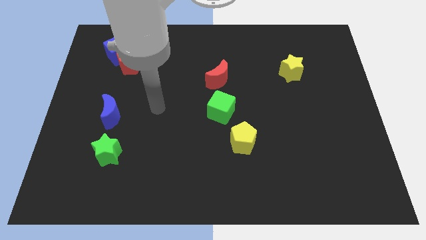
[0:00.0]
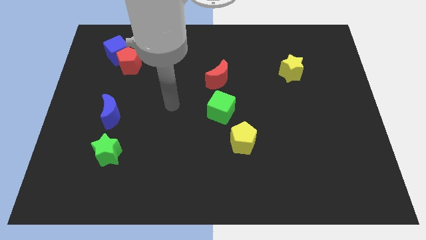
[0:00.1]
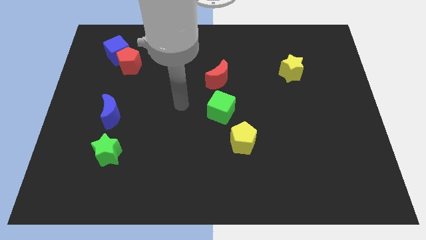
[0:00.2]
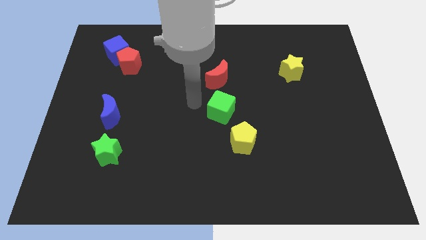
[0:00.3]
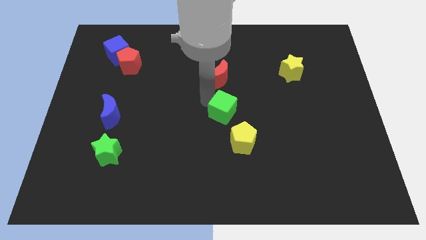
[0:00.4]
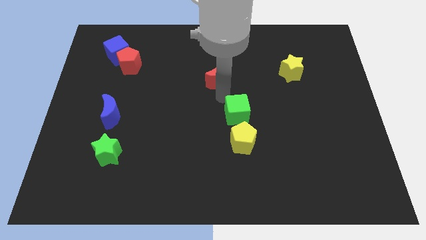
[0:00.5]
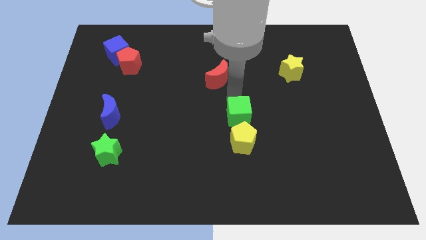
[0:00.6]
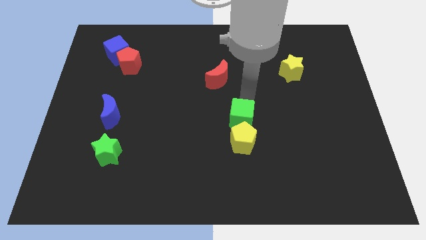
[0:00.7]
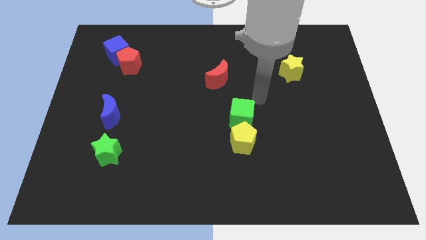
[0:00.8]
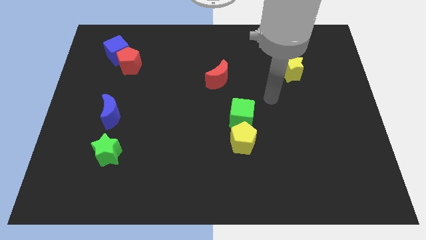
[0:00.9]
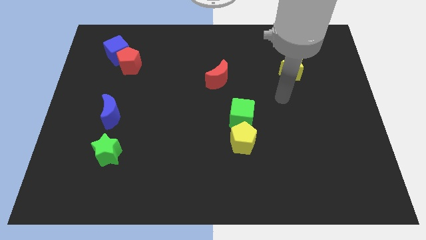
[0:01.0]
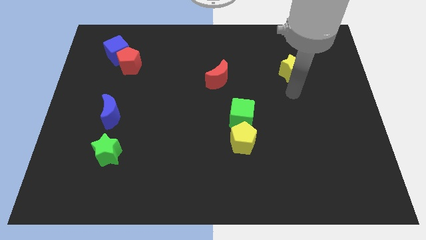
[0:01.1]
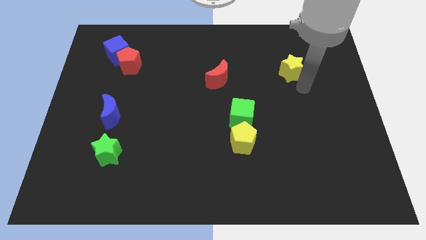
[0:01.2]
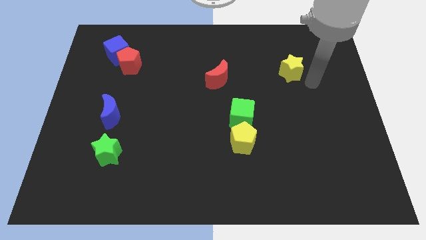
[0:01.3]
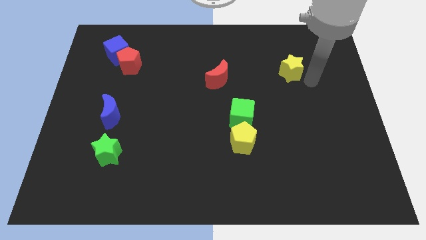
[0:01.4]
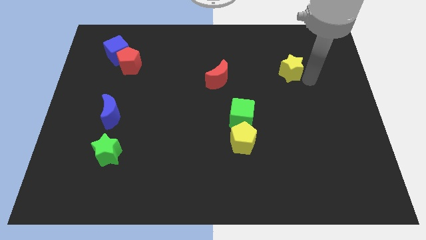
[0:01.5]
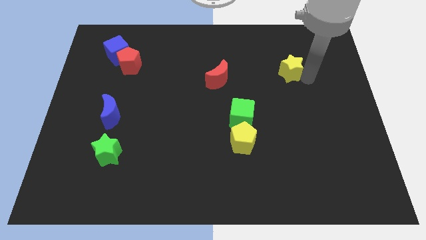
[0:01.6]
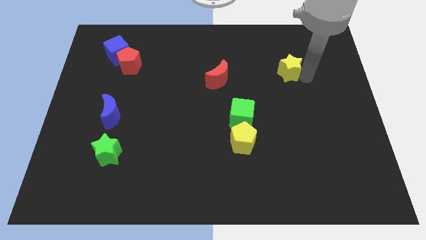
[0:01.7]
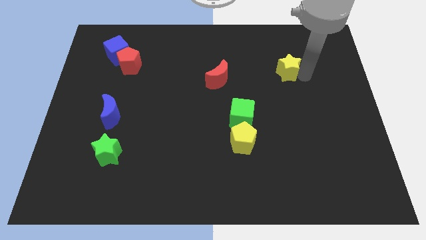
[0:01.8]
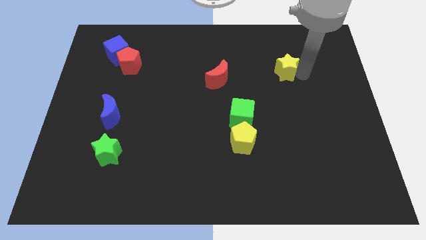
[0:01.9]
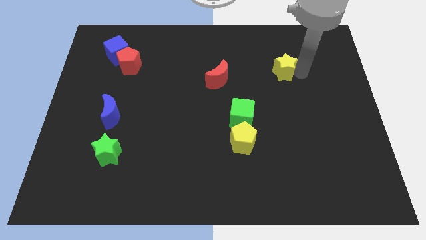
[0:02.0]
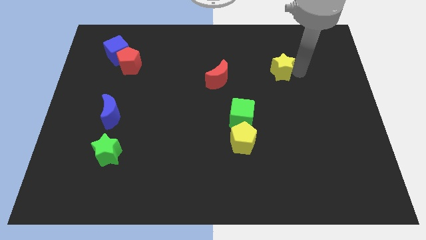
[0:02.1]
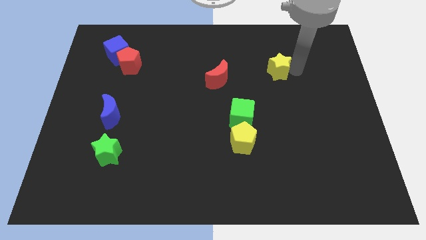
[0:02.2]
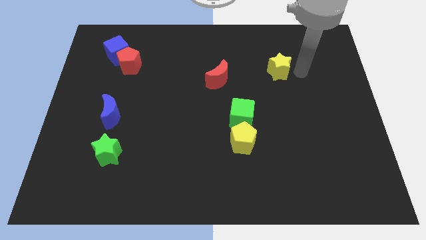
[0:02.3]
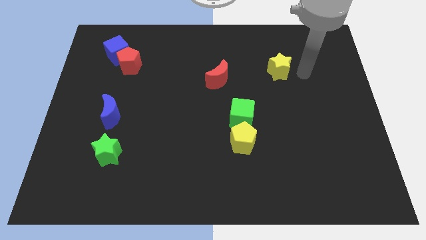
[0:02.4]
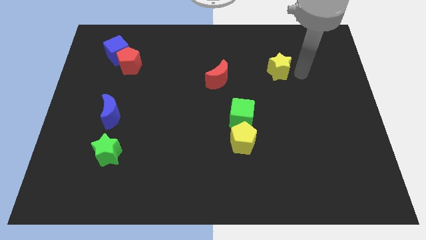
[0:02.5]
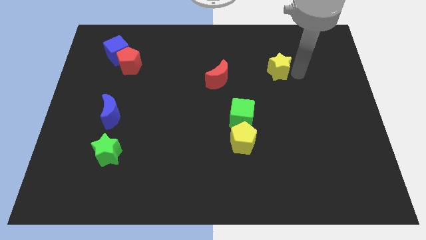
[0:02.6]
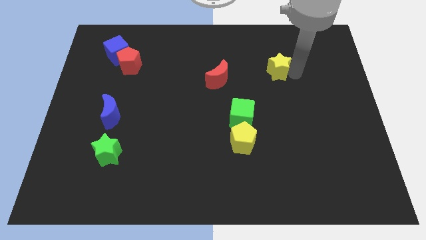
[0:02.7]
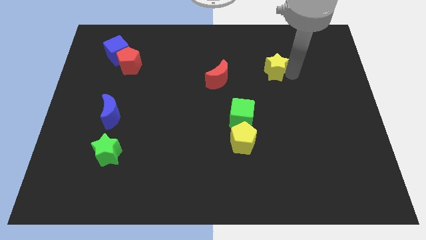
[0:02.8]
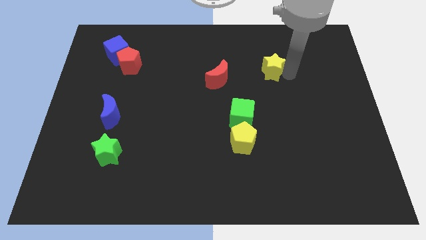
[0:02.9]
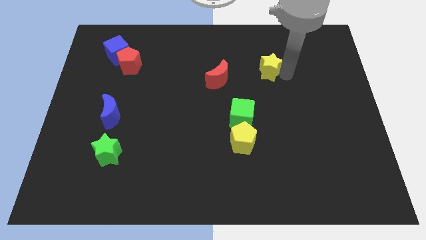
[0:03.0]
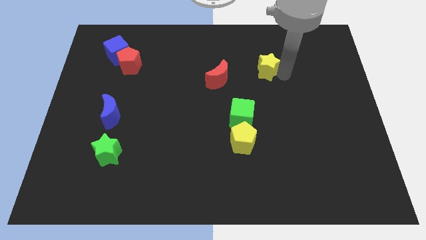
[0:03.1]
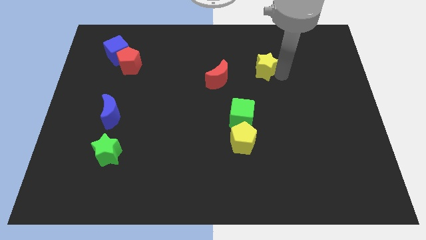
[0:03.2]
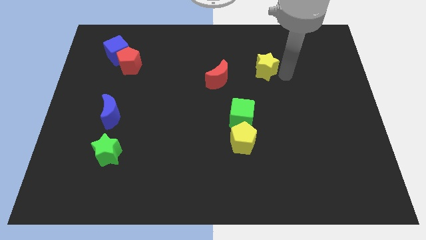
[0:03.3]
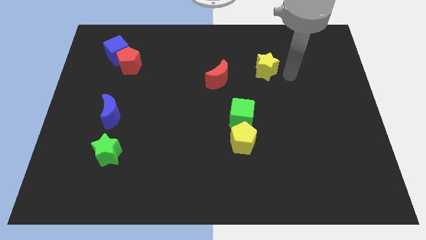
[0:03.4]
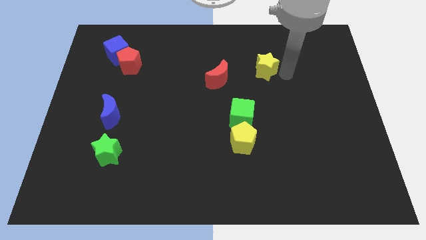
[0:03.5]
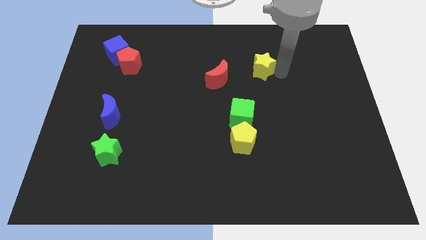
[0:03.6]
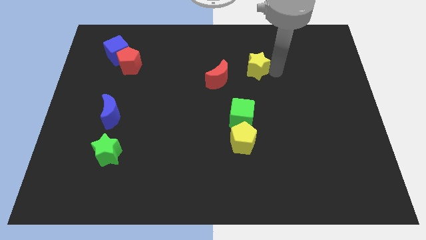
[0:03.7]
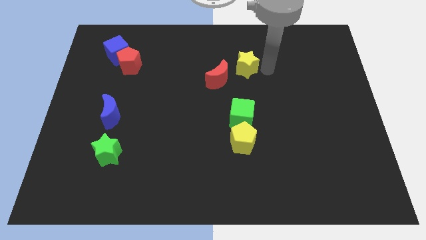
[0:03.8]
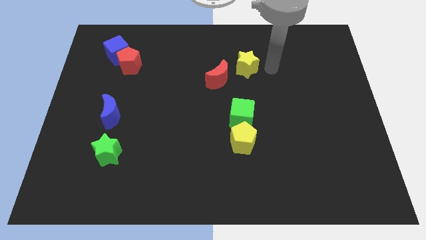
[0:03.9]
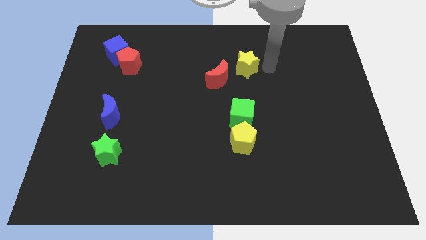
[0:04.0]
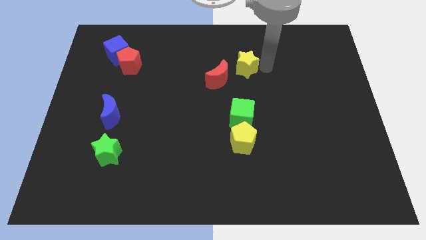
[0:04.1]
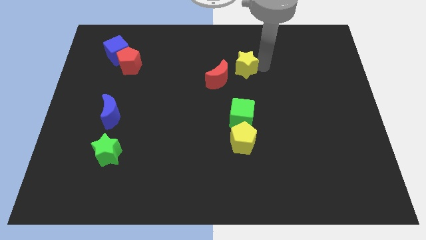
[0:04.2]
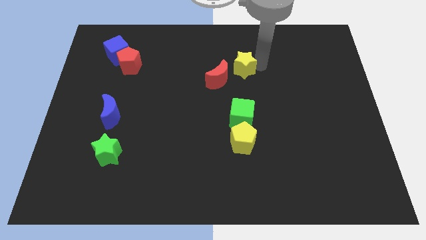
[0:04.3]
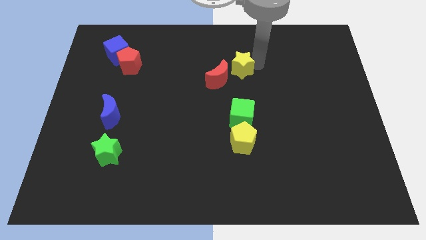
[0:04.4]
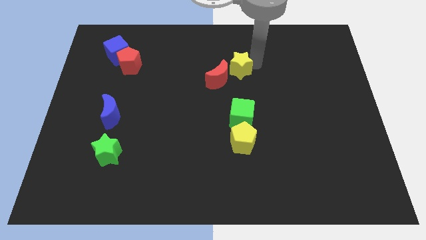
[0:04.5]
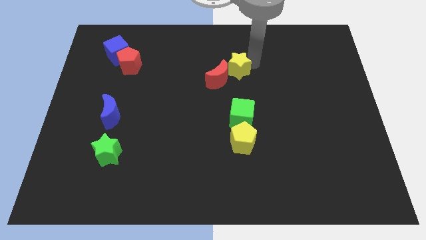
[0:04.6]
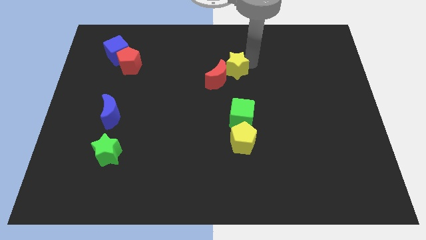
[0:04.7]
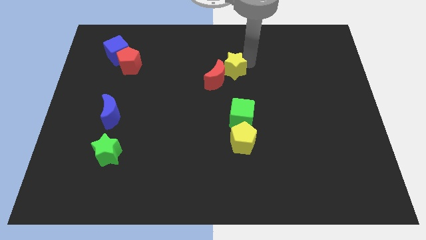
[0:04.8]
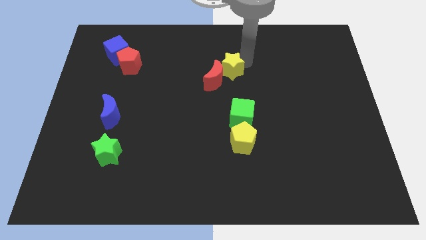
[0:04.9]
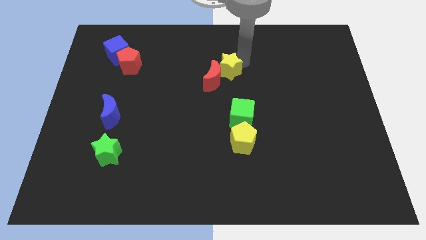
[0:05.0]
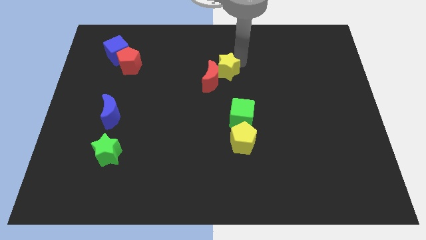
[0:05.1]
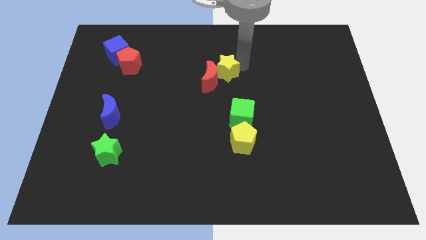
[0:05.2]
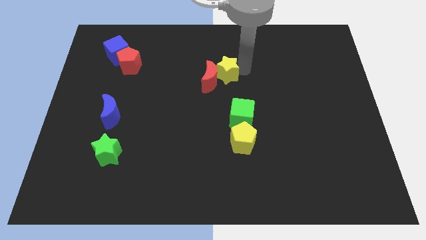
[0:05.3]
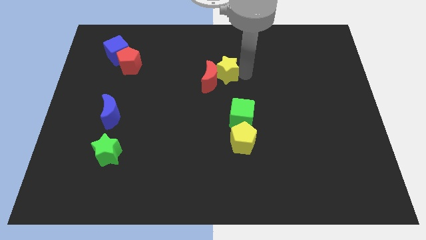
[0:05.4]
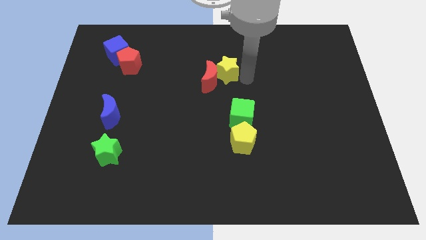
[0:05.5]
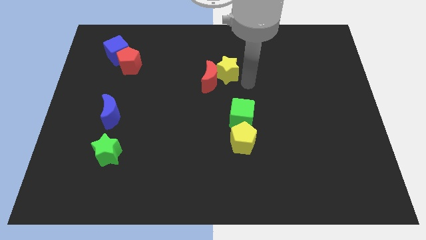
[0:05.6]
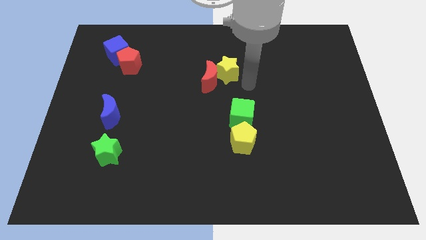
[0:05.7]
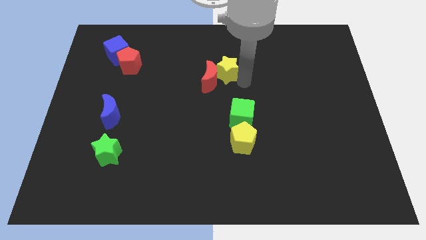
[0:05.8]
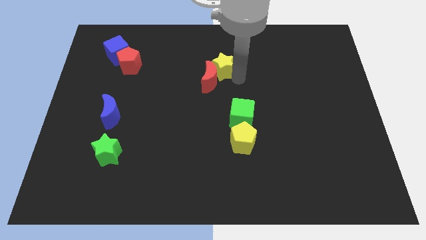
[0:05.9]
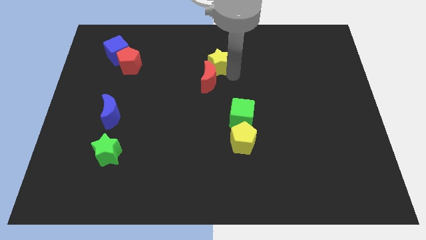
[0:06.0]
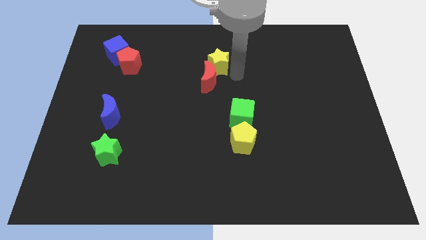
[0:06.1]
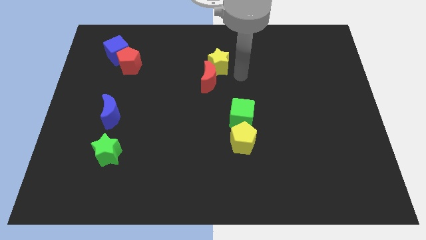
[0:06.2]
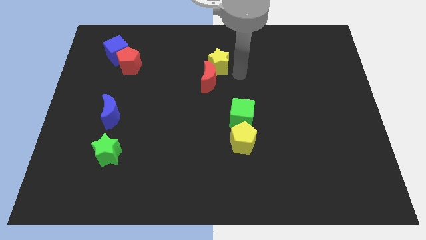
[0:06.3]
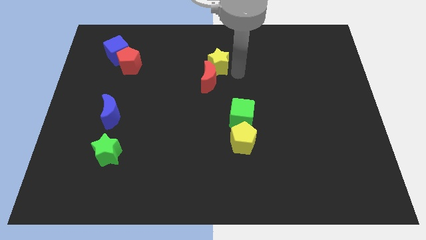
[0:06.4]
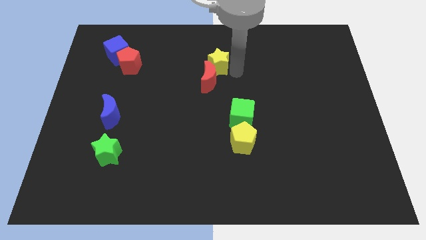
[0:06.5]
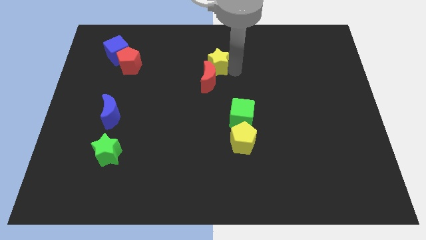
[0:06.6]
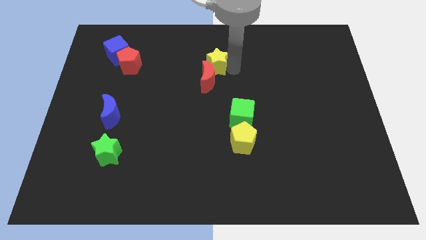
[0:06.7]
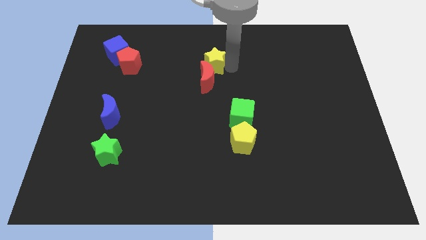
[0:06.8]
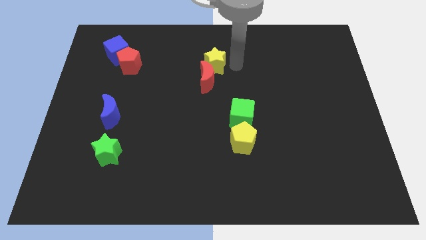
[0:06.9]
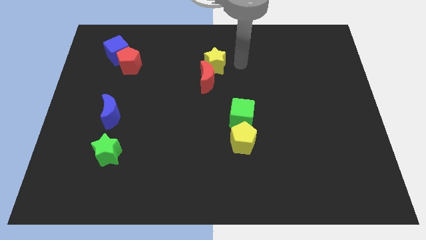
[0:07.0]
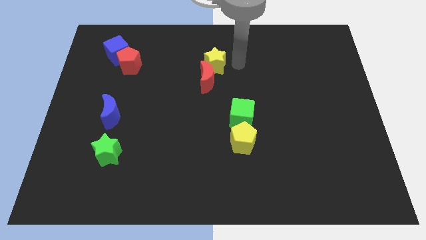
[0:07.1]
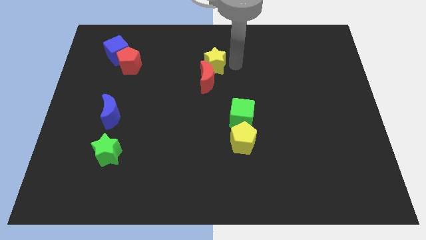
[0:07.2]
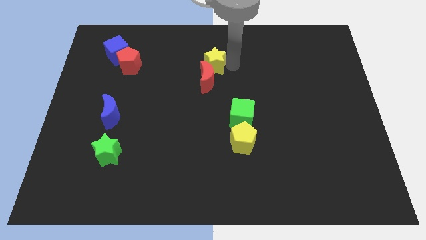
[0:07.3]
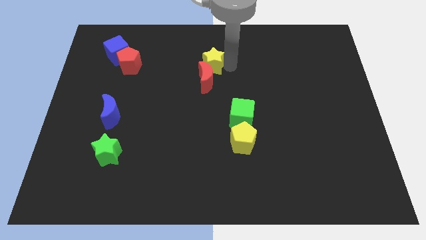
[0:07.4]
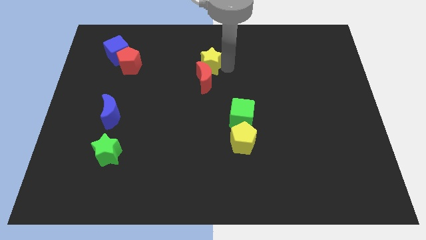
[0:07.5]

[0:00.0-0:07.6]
push the yellow star left

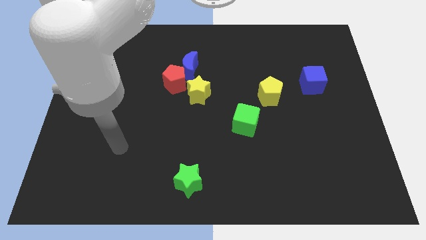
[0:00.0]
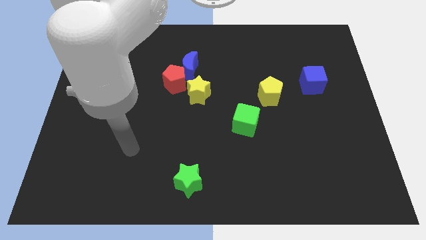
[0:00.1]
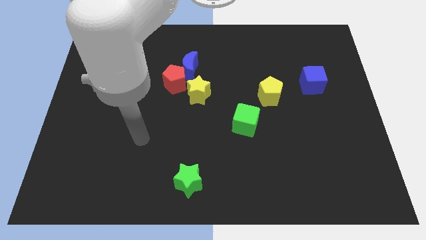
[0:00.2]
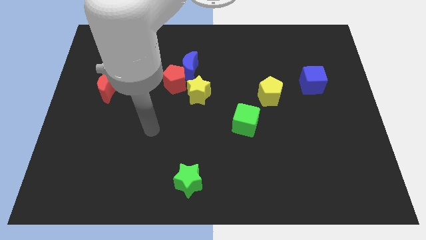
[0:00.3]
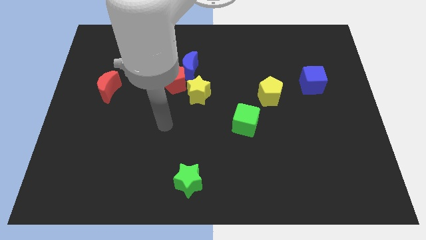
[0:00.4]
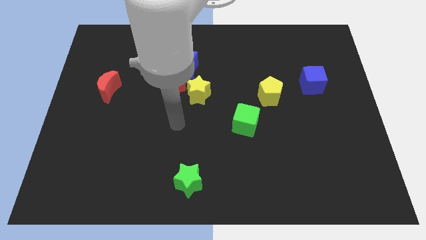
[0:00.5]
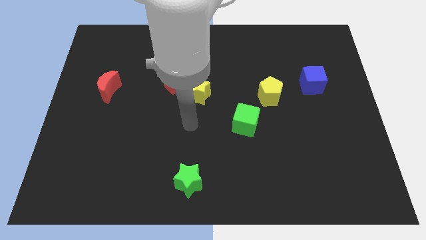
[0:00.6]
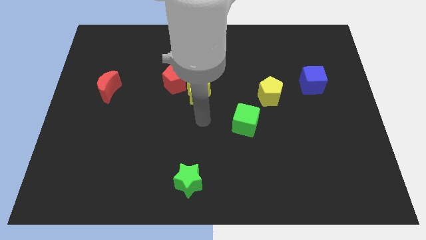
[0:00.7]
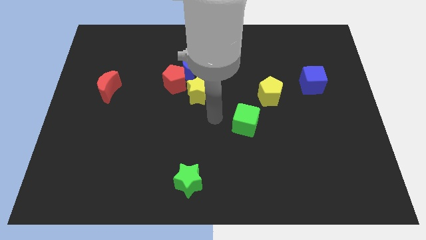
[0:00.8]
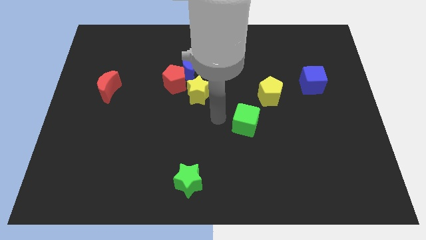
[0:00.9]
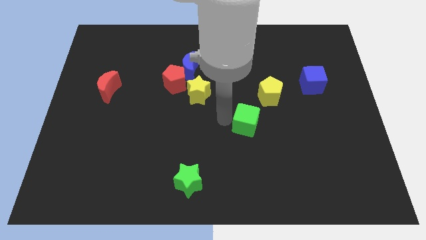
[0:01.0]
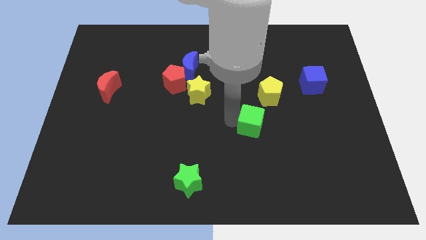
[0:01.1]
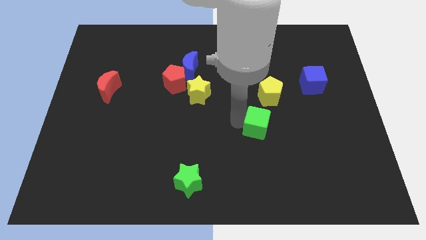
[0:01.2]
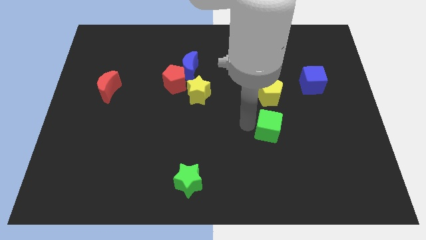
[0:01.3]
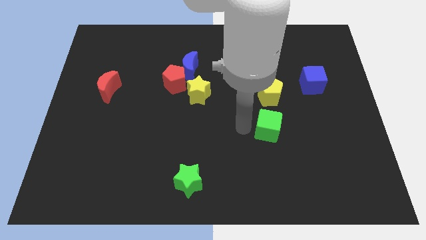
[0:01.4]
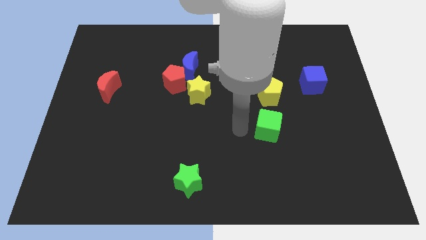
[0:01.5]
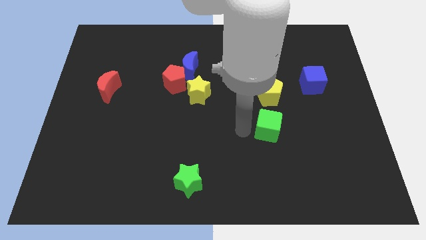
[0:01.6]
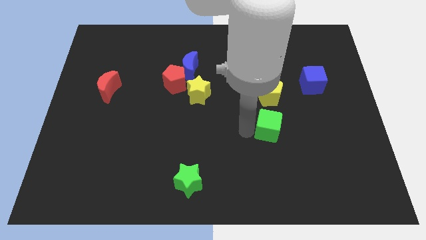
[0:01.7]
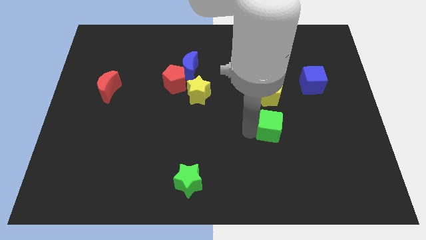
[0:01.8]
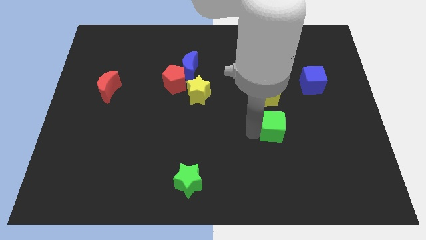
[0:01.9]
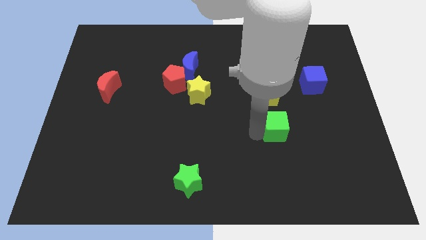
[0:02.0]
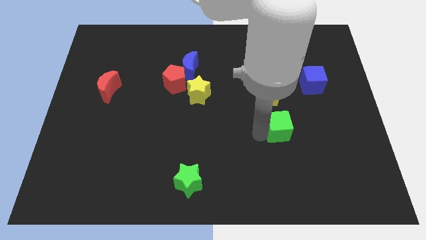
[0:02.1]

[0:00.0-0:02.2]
slide the green cube to the right slightly
